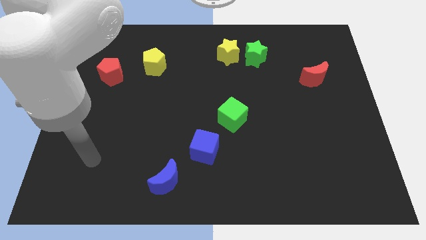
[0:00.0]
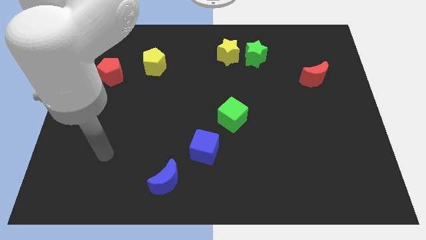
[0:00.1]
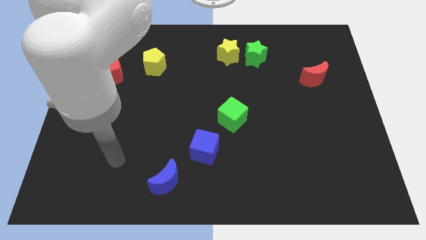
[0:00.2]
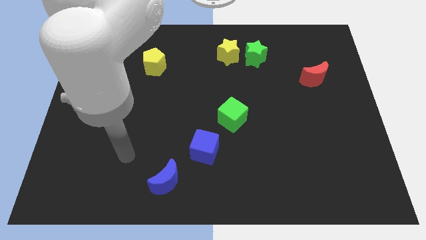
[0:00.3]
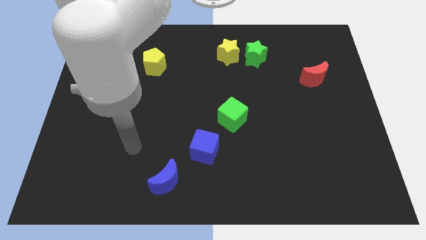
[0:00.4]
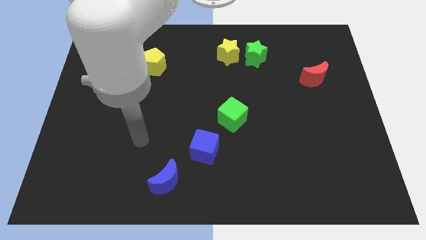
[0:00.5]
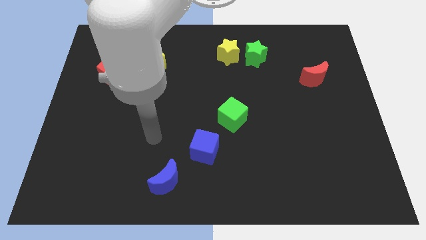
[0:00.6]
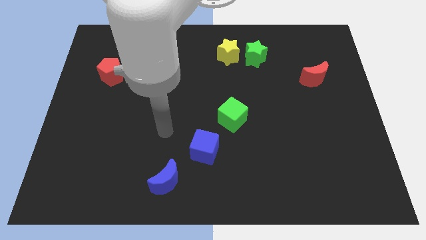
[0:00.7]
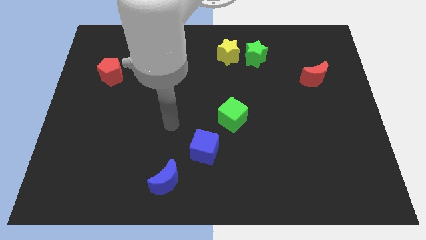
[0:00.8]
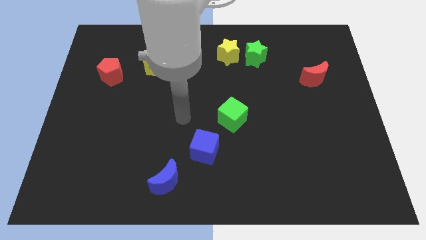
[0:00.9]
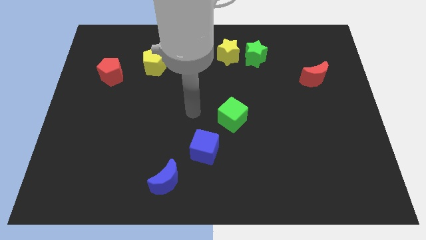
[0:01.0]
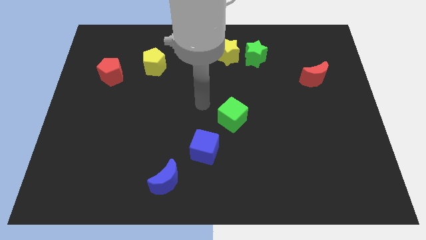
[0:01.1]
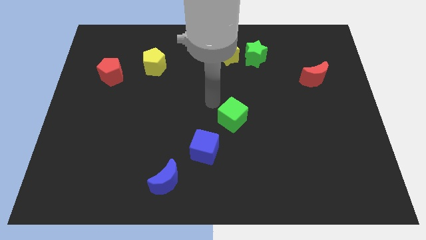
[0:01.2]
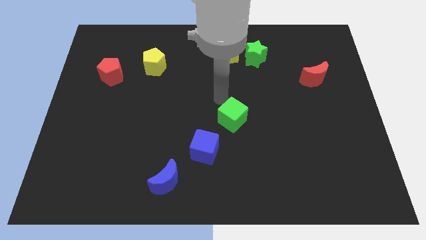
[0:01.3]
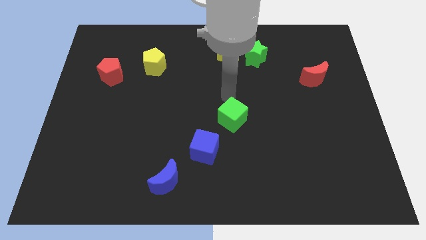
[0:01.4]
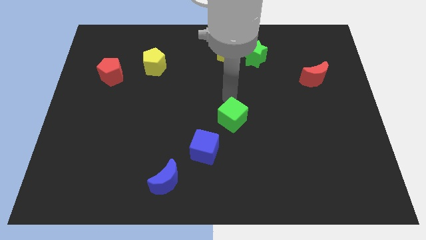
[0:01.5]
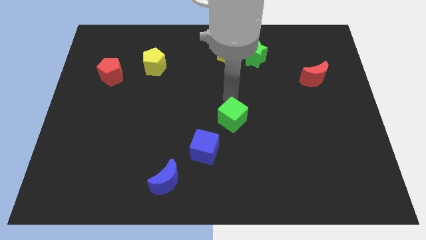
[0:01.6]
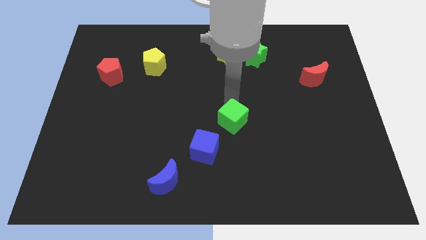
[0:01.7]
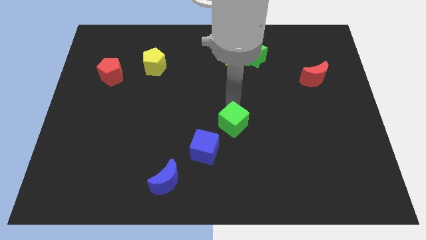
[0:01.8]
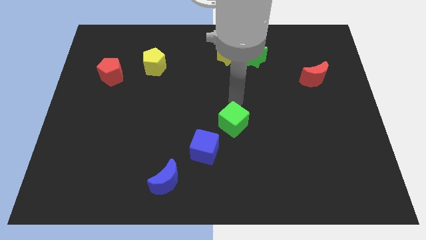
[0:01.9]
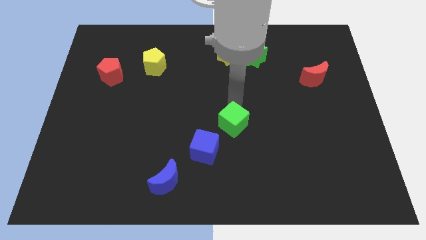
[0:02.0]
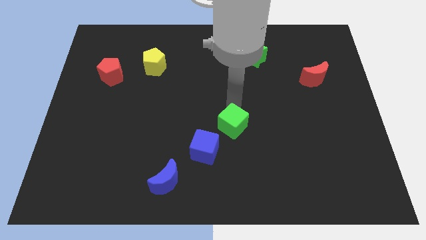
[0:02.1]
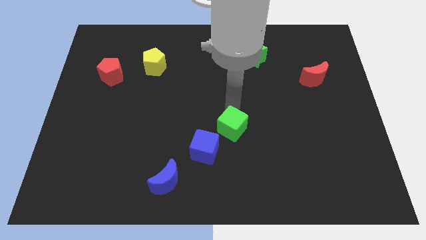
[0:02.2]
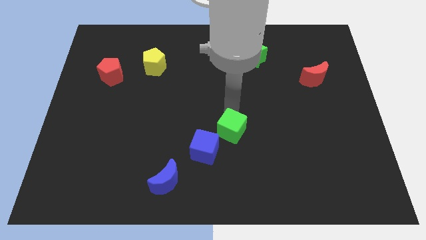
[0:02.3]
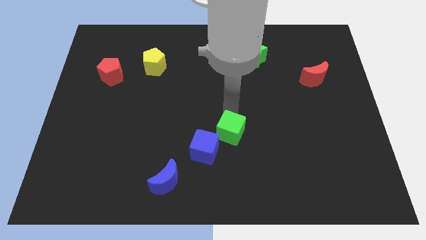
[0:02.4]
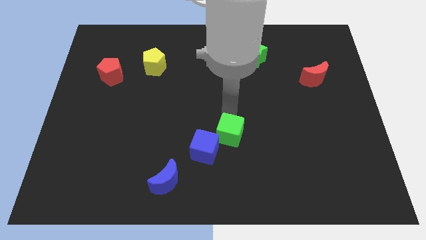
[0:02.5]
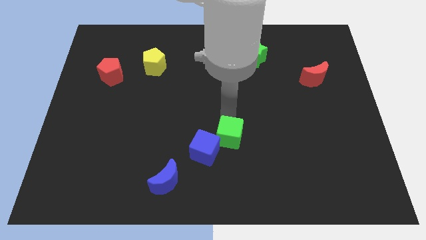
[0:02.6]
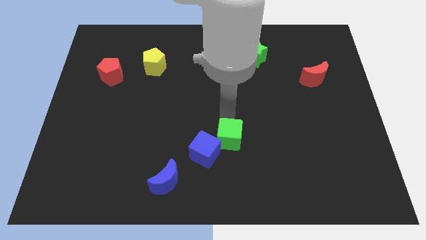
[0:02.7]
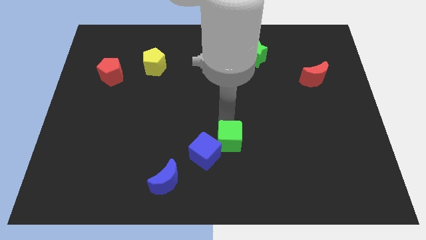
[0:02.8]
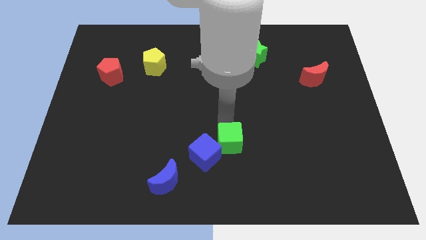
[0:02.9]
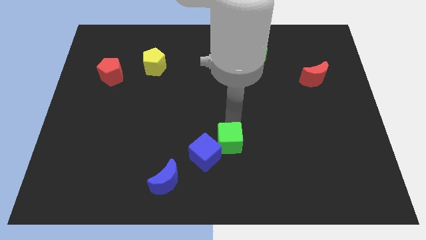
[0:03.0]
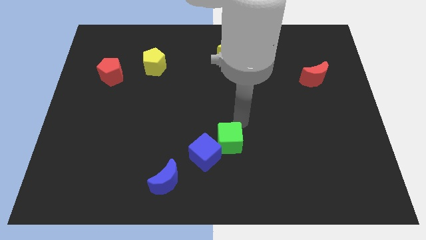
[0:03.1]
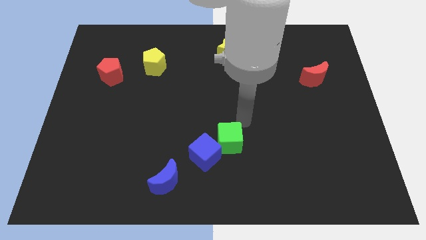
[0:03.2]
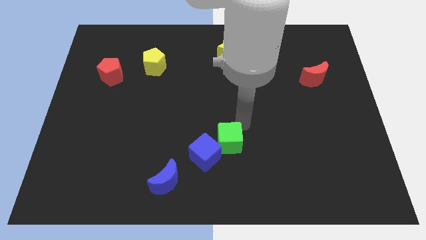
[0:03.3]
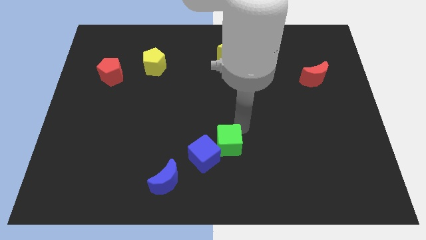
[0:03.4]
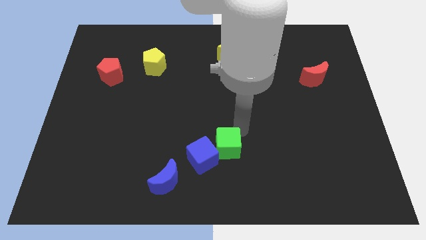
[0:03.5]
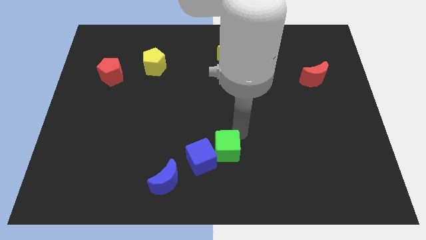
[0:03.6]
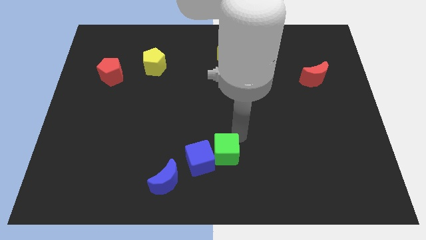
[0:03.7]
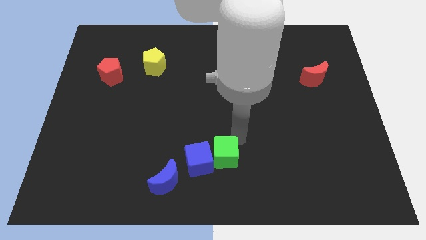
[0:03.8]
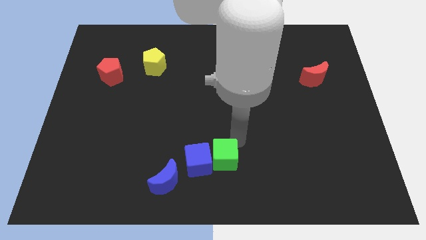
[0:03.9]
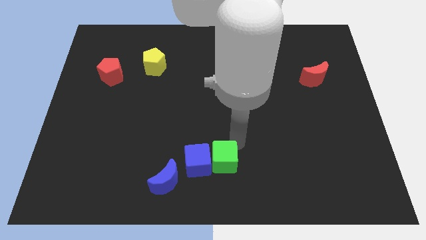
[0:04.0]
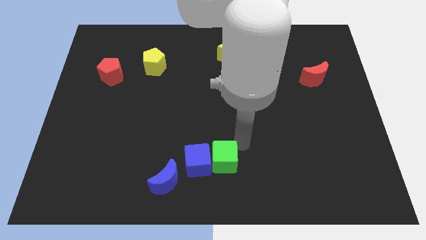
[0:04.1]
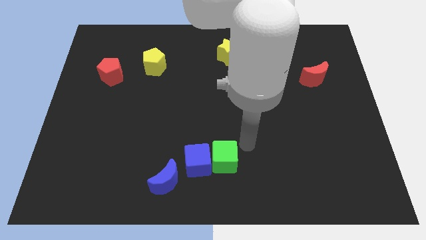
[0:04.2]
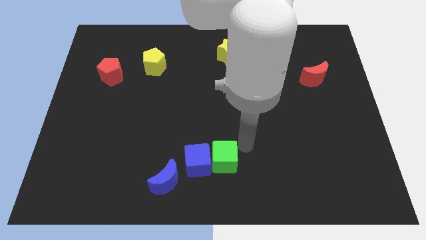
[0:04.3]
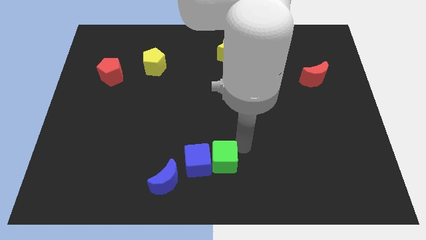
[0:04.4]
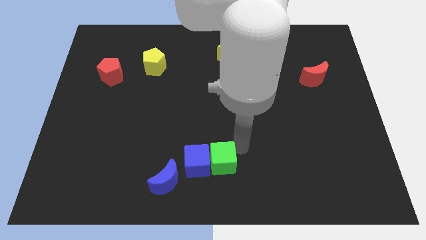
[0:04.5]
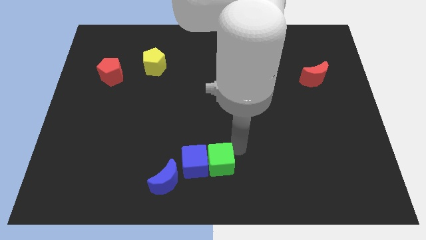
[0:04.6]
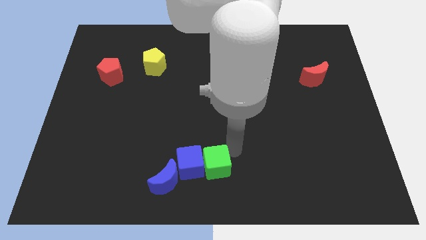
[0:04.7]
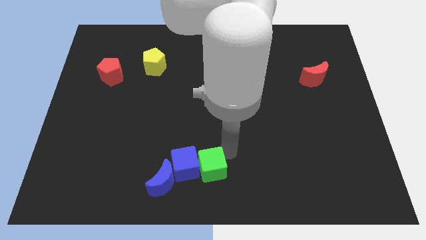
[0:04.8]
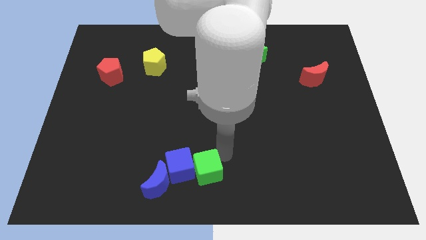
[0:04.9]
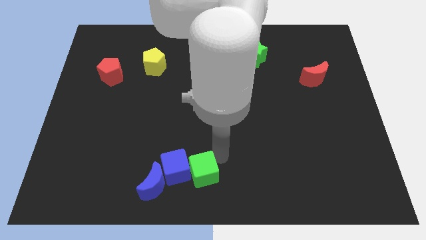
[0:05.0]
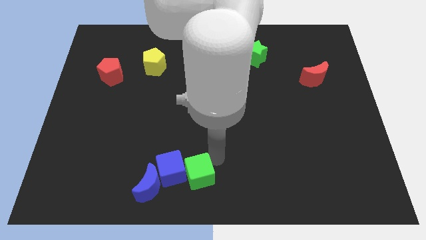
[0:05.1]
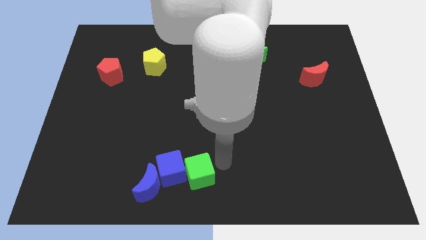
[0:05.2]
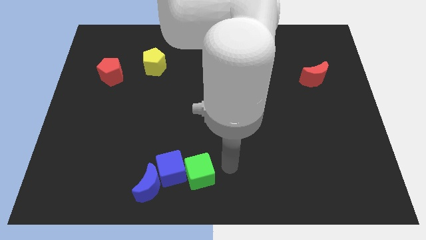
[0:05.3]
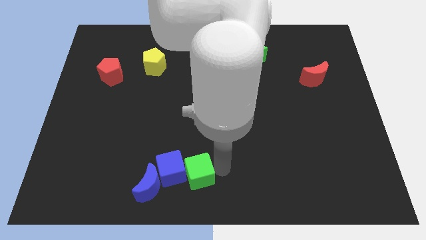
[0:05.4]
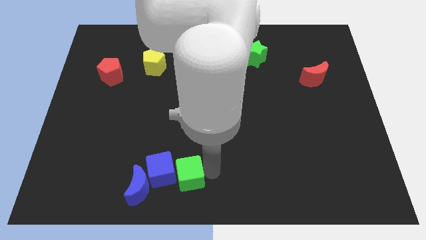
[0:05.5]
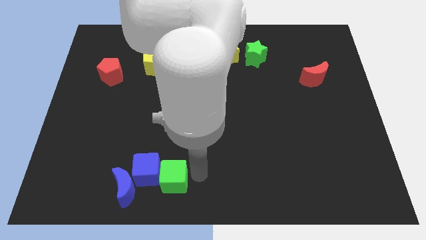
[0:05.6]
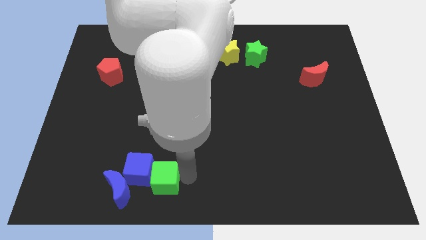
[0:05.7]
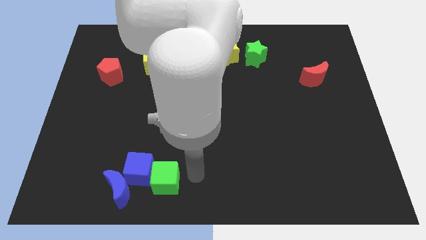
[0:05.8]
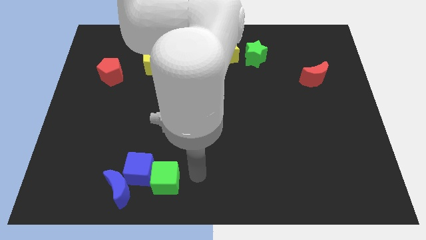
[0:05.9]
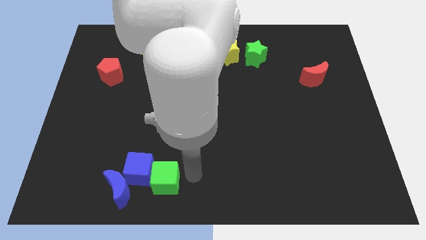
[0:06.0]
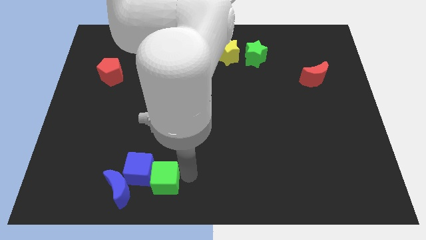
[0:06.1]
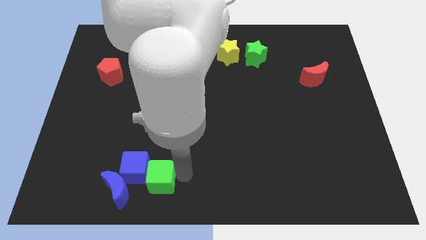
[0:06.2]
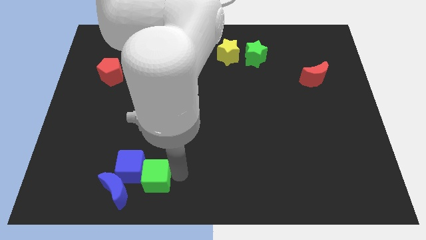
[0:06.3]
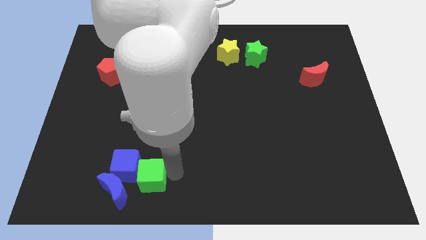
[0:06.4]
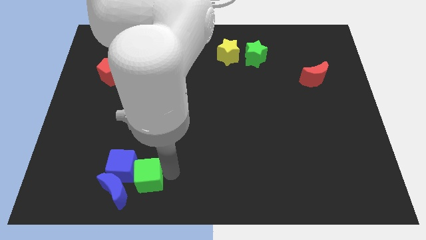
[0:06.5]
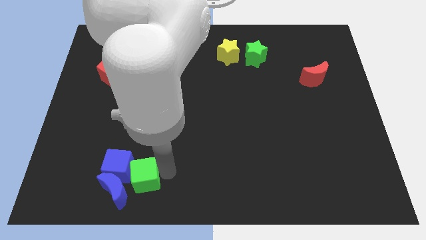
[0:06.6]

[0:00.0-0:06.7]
push the green cube next to the blue moon
